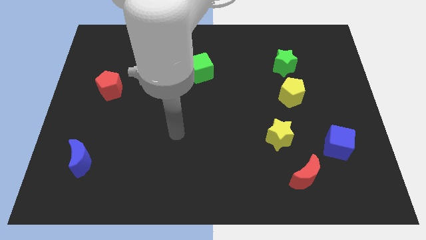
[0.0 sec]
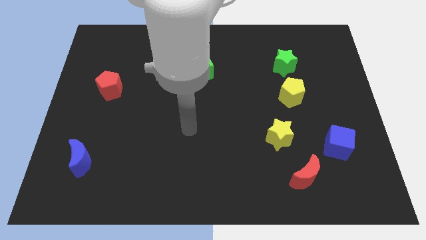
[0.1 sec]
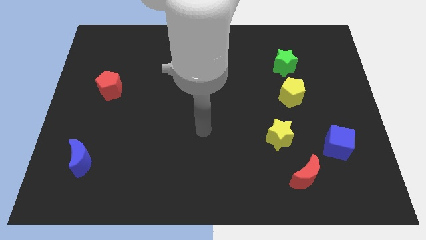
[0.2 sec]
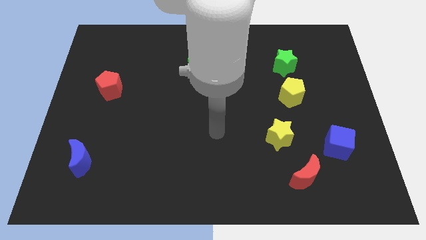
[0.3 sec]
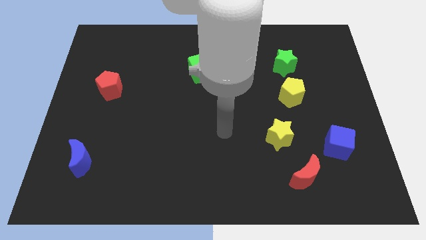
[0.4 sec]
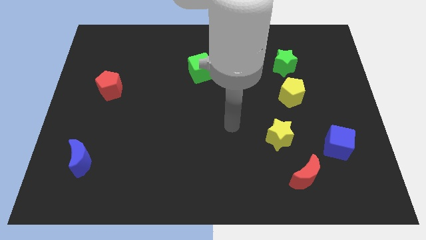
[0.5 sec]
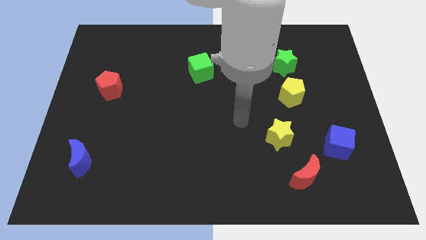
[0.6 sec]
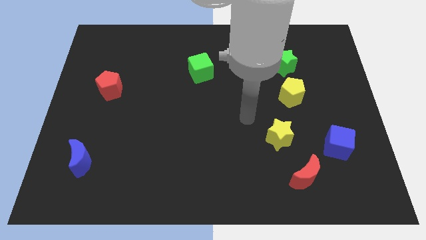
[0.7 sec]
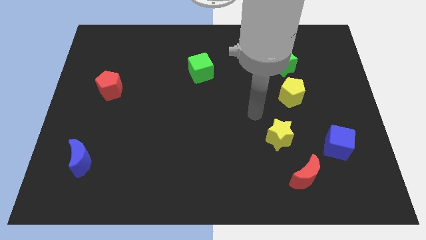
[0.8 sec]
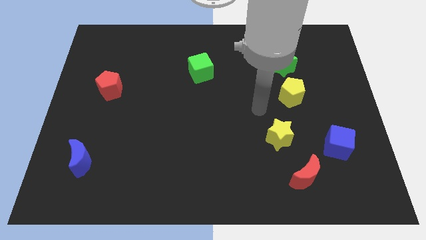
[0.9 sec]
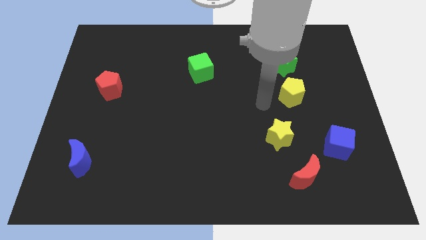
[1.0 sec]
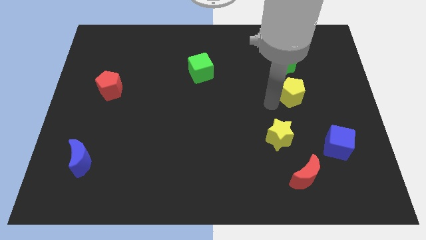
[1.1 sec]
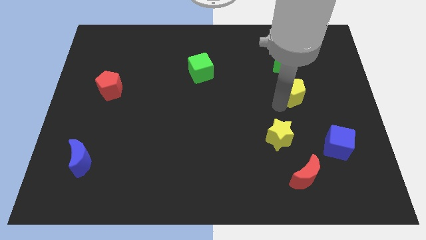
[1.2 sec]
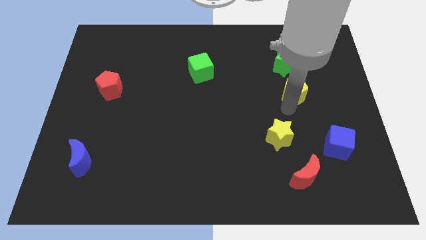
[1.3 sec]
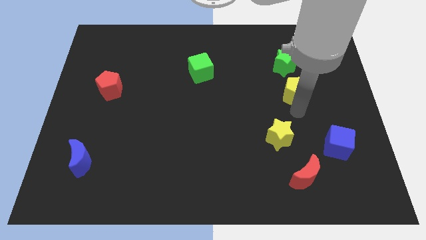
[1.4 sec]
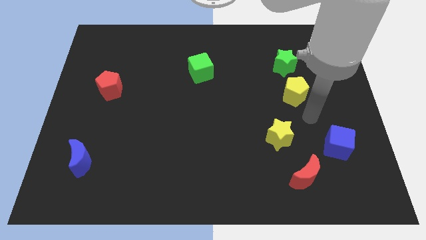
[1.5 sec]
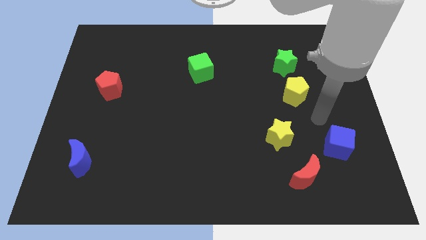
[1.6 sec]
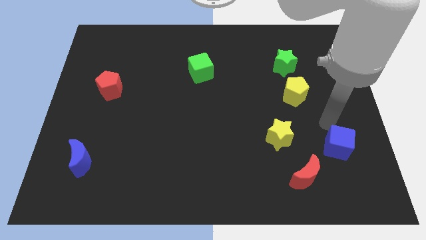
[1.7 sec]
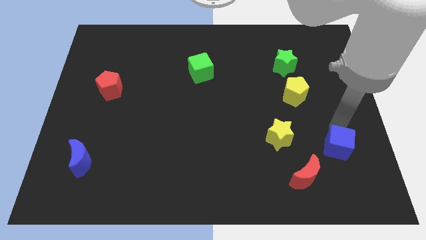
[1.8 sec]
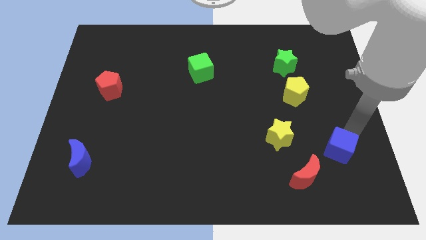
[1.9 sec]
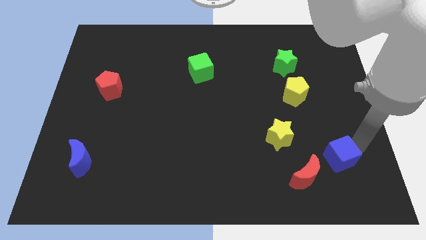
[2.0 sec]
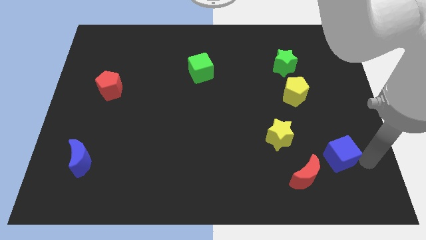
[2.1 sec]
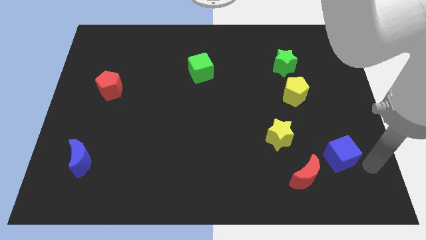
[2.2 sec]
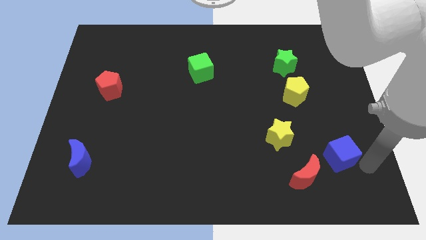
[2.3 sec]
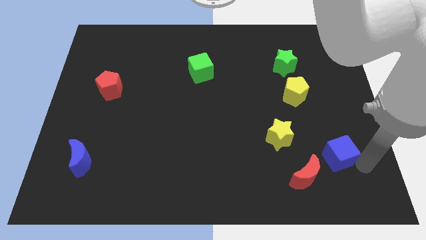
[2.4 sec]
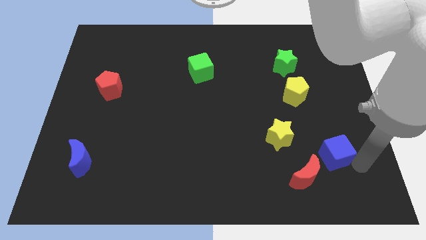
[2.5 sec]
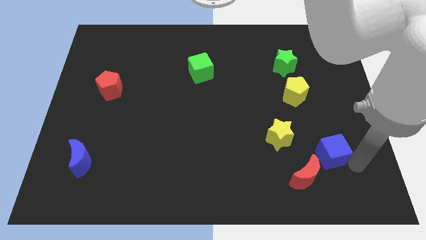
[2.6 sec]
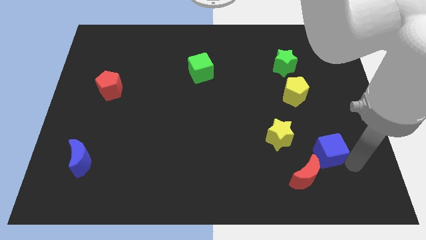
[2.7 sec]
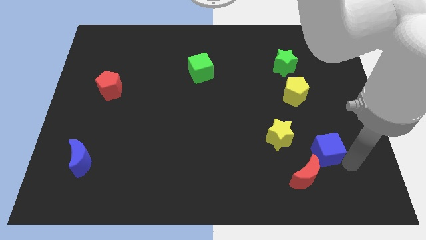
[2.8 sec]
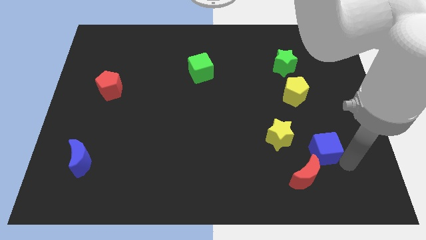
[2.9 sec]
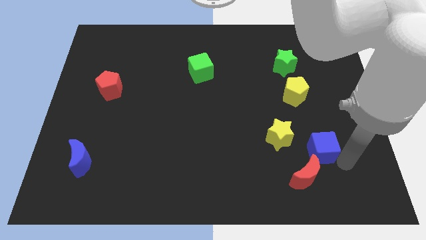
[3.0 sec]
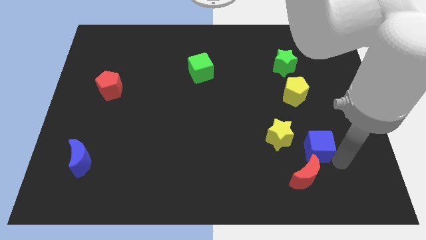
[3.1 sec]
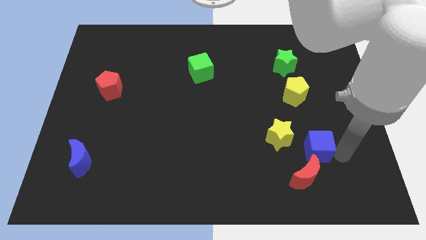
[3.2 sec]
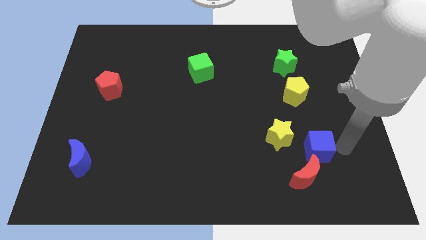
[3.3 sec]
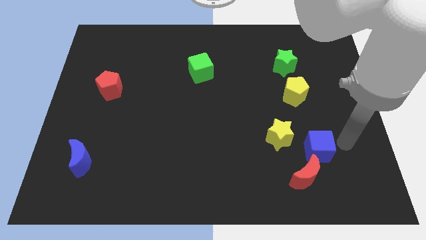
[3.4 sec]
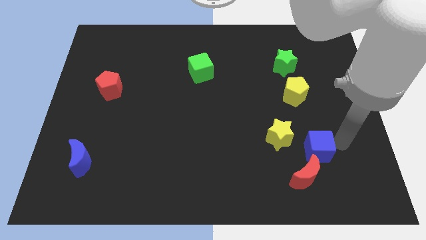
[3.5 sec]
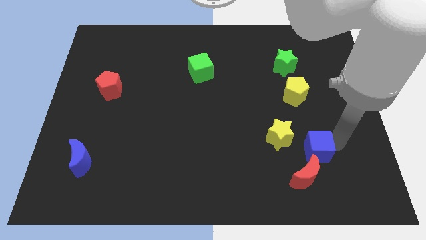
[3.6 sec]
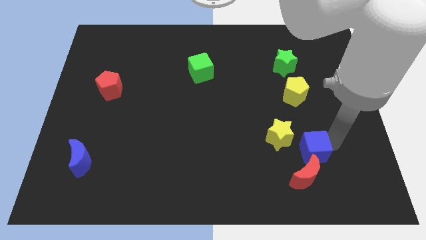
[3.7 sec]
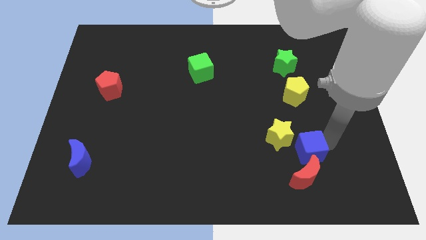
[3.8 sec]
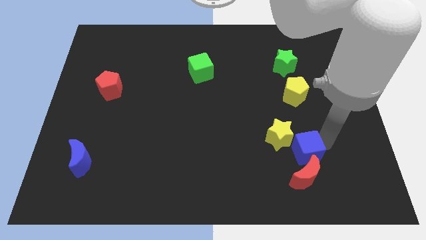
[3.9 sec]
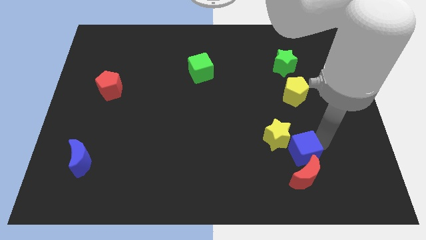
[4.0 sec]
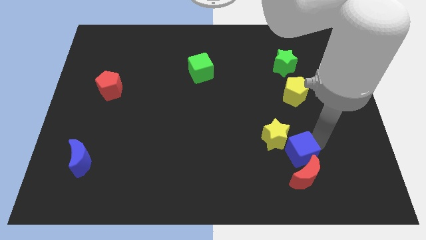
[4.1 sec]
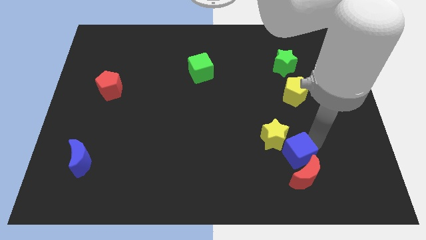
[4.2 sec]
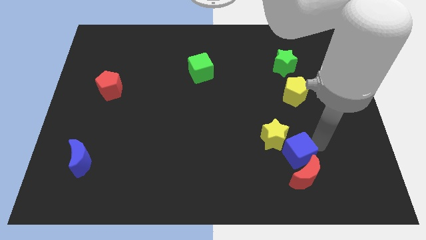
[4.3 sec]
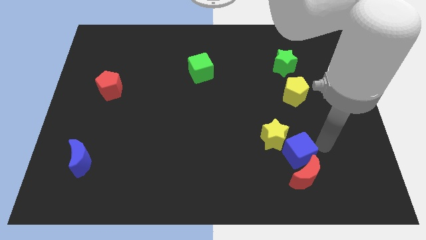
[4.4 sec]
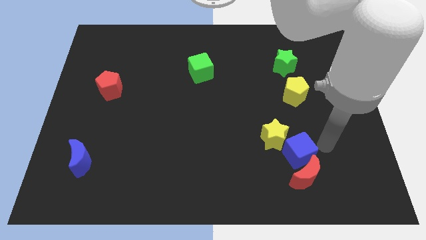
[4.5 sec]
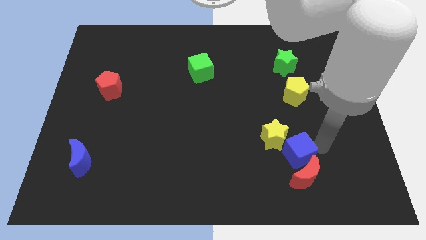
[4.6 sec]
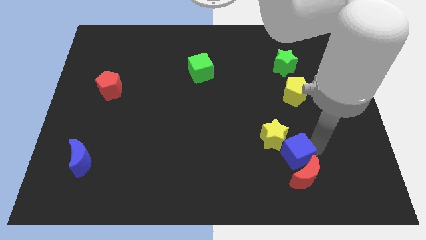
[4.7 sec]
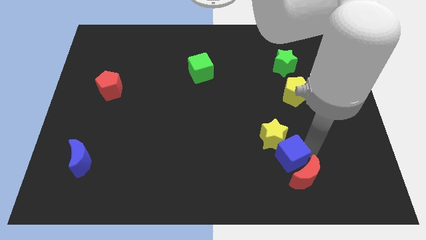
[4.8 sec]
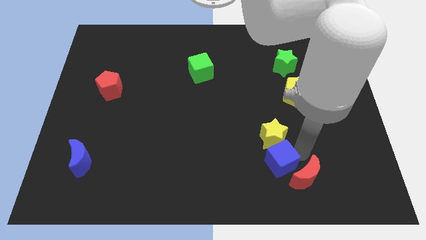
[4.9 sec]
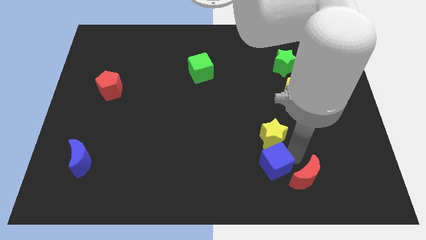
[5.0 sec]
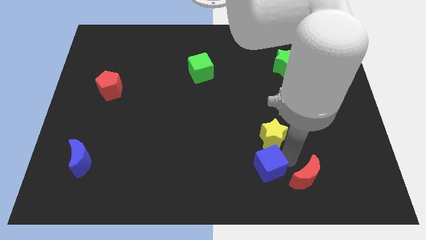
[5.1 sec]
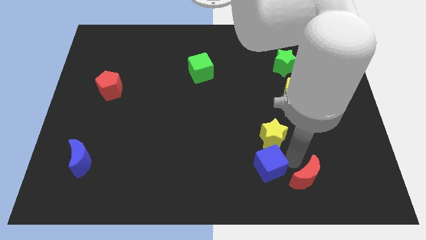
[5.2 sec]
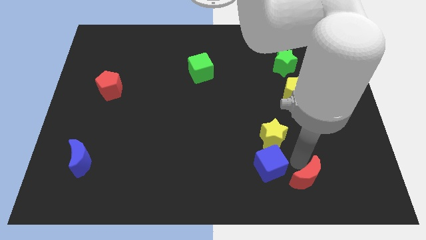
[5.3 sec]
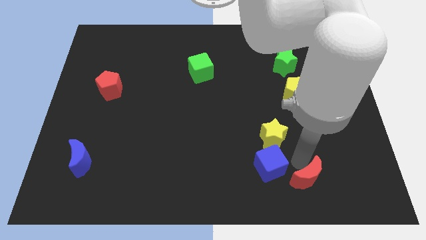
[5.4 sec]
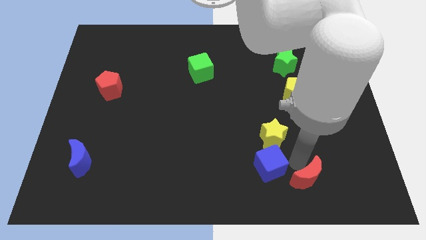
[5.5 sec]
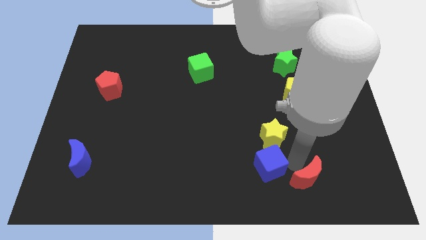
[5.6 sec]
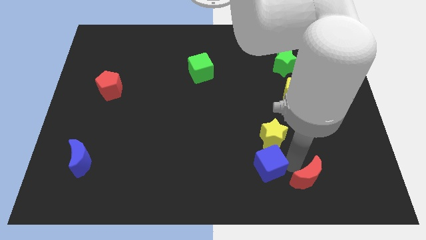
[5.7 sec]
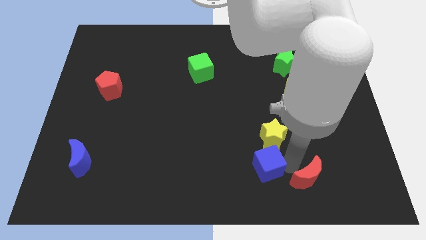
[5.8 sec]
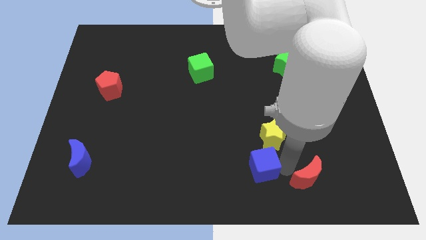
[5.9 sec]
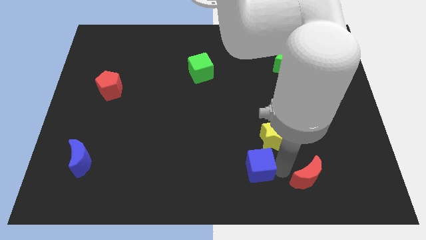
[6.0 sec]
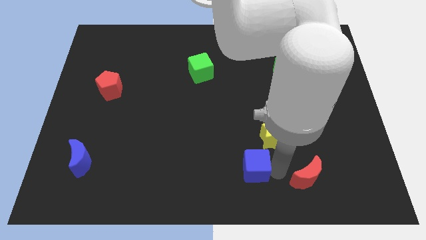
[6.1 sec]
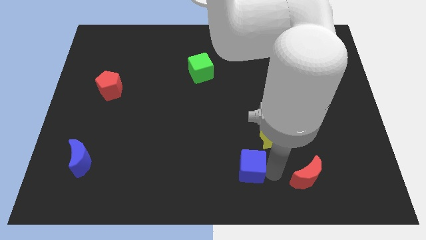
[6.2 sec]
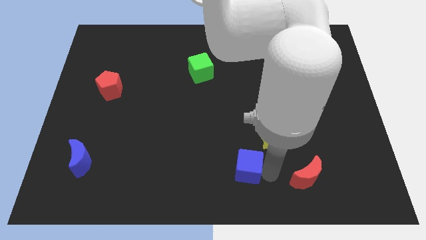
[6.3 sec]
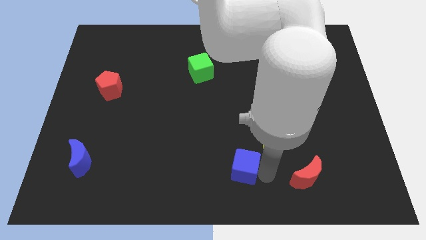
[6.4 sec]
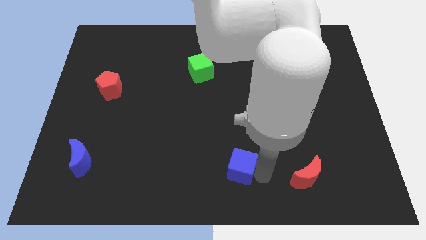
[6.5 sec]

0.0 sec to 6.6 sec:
push the blue cube left

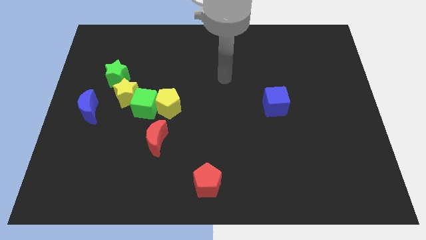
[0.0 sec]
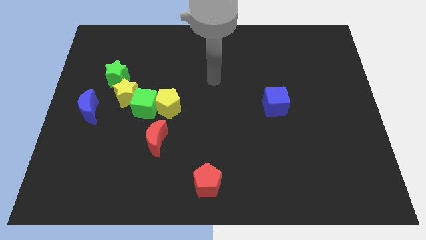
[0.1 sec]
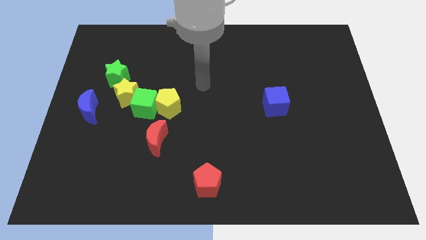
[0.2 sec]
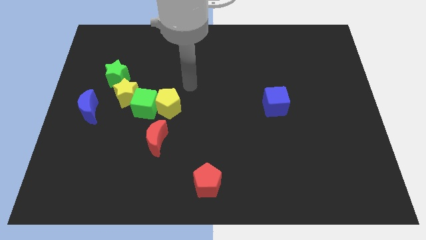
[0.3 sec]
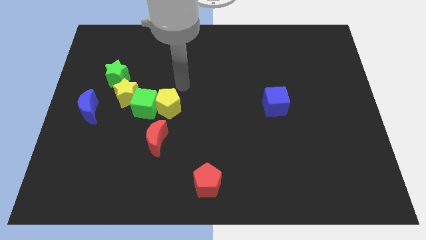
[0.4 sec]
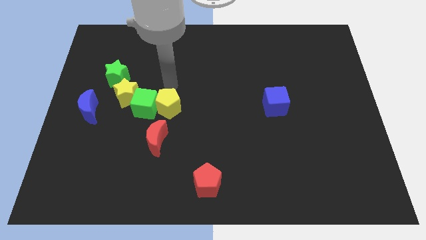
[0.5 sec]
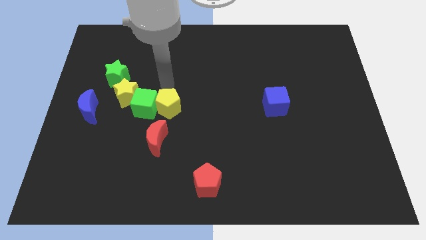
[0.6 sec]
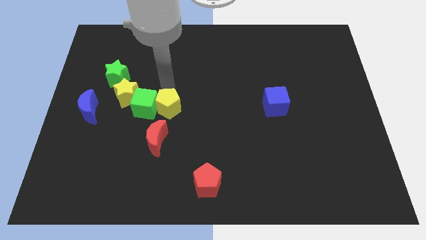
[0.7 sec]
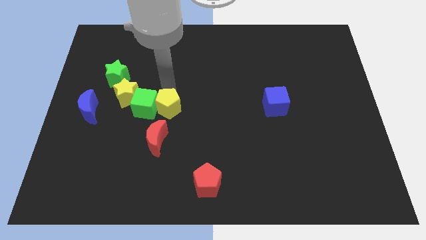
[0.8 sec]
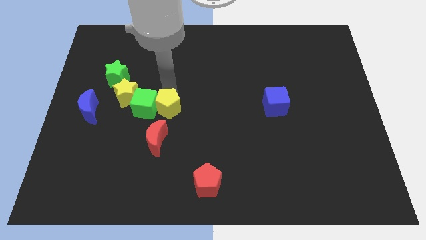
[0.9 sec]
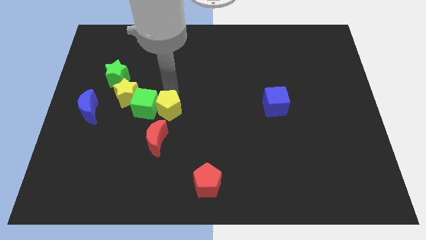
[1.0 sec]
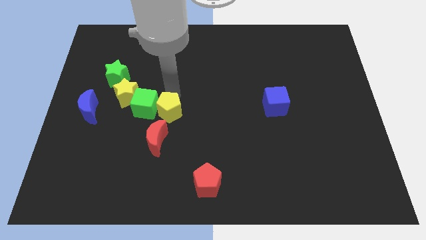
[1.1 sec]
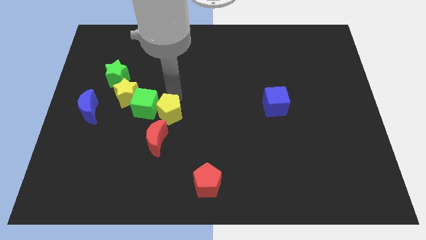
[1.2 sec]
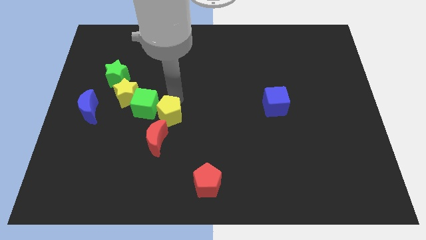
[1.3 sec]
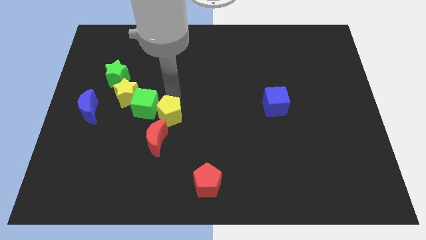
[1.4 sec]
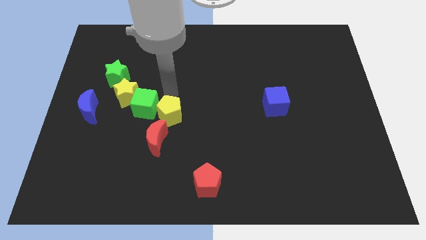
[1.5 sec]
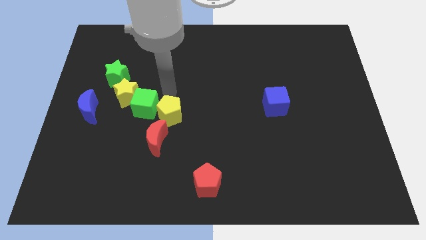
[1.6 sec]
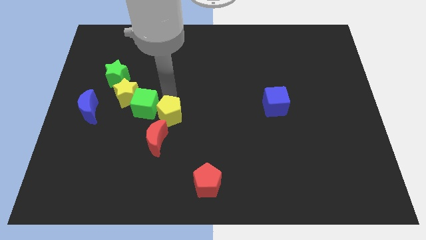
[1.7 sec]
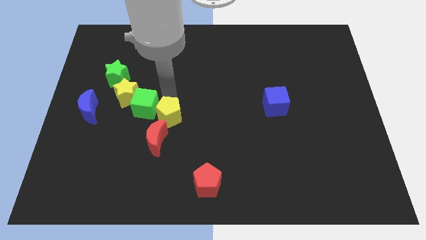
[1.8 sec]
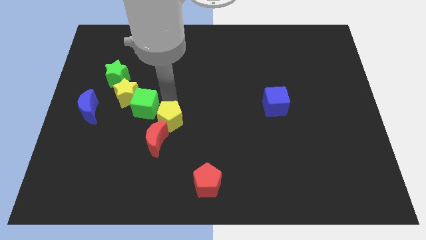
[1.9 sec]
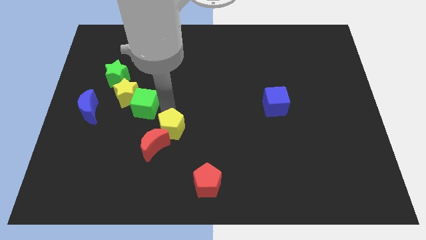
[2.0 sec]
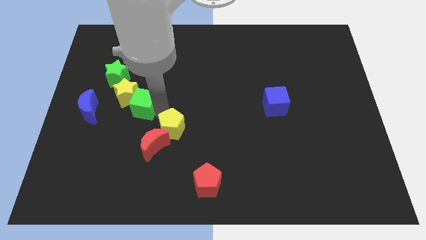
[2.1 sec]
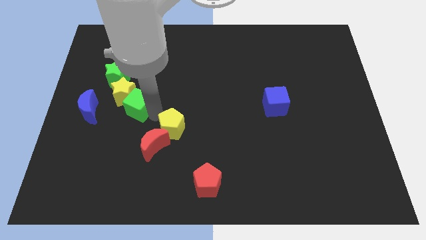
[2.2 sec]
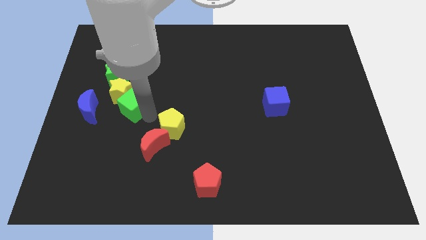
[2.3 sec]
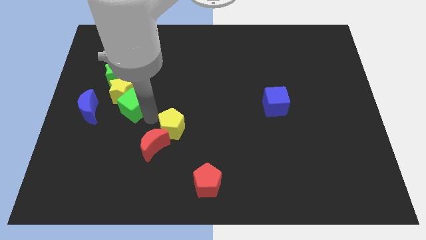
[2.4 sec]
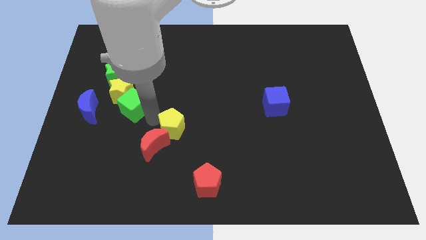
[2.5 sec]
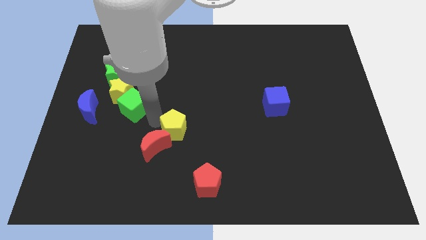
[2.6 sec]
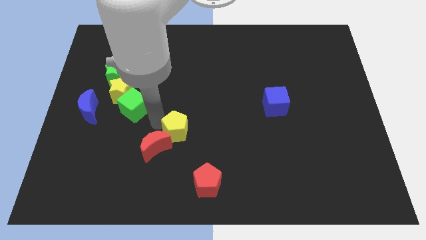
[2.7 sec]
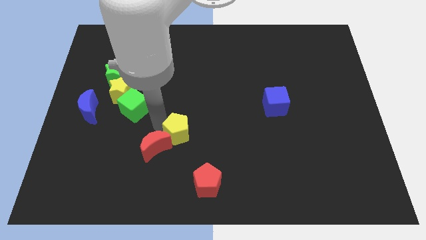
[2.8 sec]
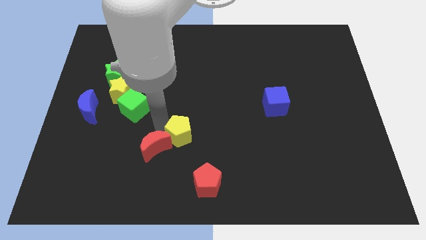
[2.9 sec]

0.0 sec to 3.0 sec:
move the yellow pentagon downwards and right somewhat
